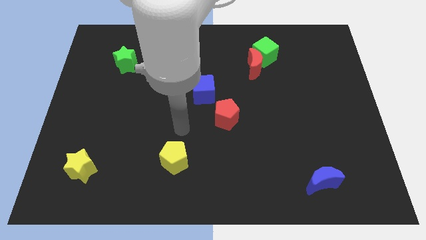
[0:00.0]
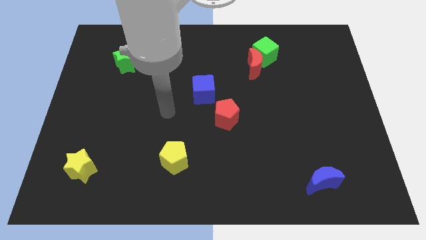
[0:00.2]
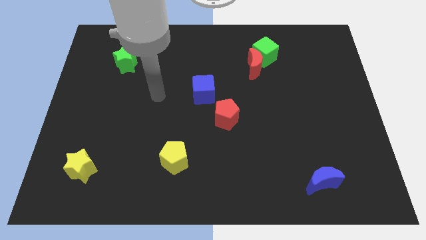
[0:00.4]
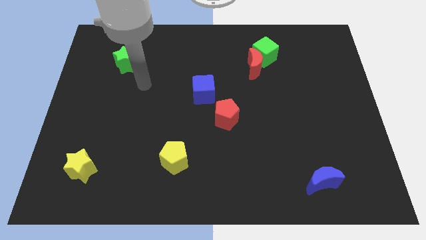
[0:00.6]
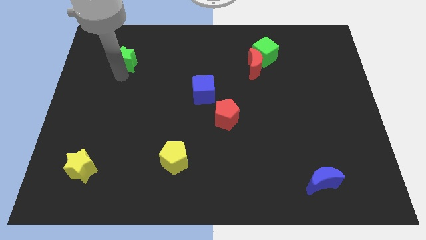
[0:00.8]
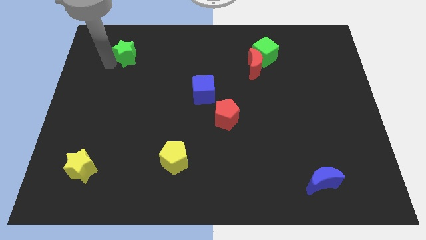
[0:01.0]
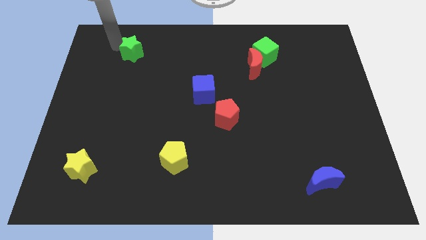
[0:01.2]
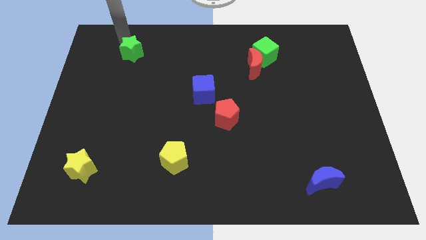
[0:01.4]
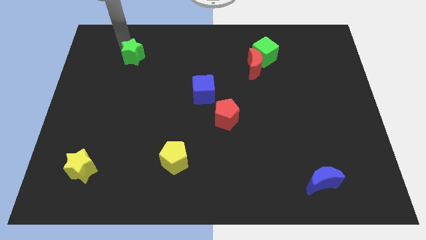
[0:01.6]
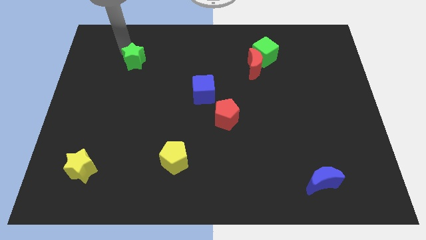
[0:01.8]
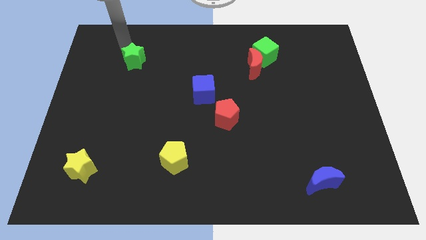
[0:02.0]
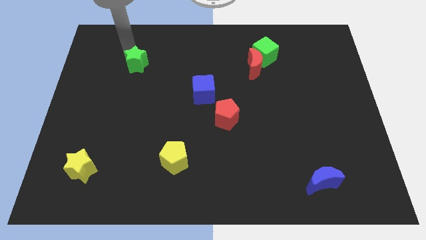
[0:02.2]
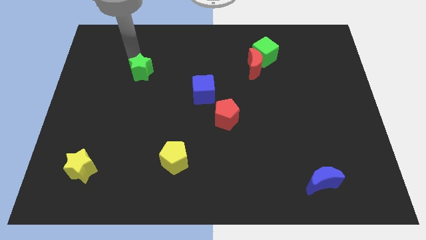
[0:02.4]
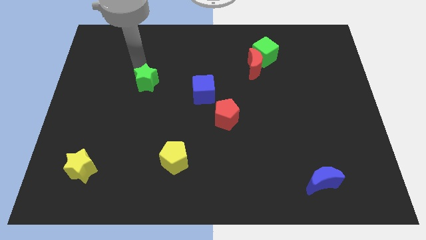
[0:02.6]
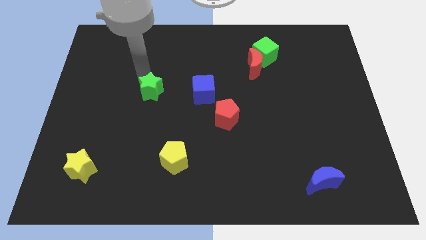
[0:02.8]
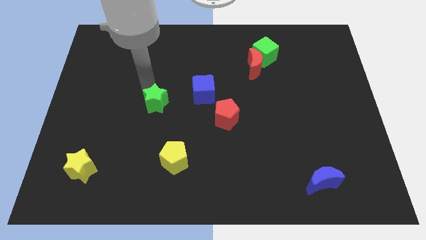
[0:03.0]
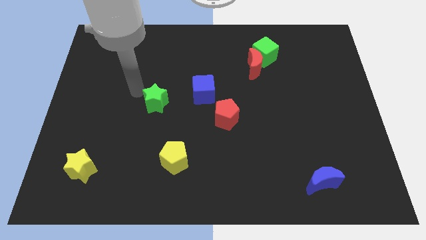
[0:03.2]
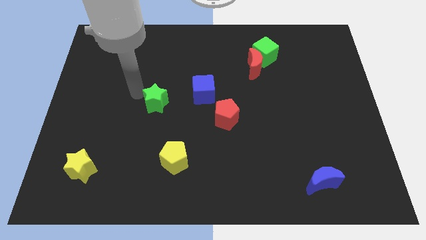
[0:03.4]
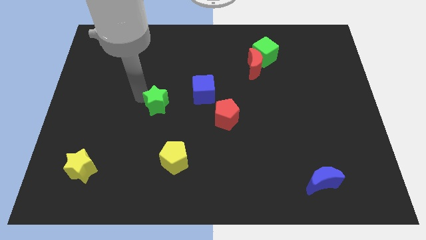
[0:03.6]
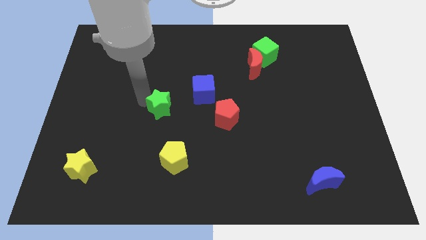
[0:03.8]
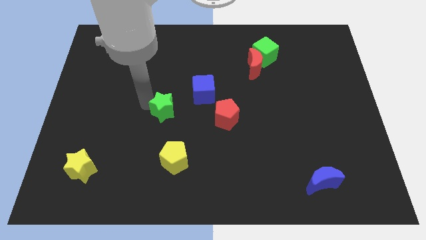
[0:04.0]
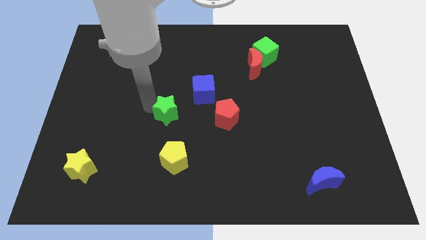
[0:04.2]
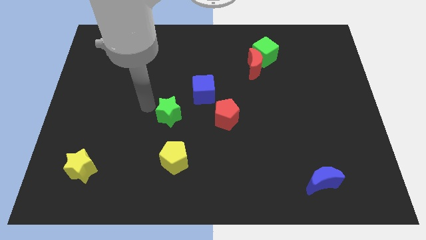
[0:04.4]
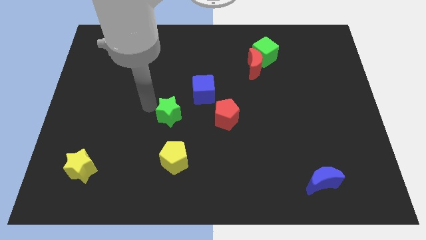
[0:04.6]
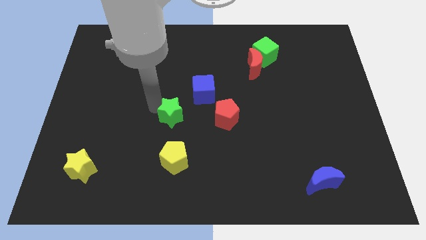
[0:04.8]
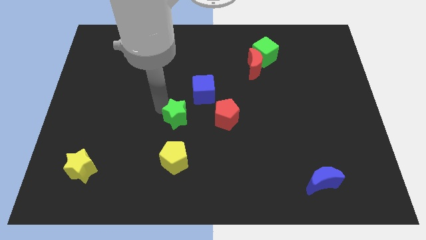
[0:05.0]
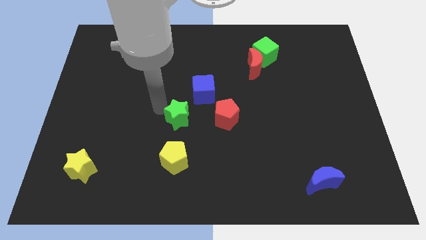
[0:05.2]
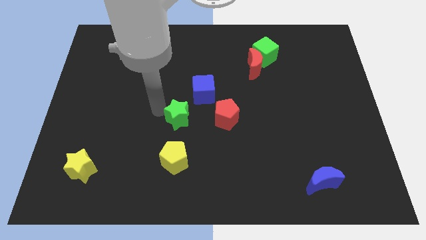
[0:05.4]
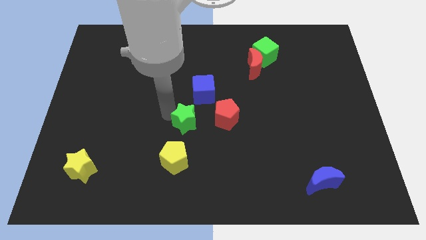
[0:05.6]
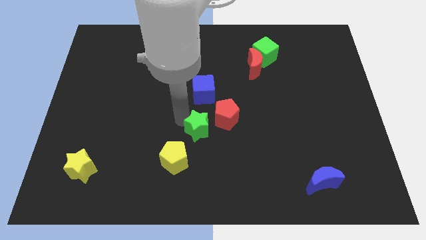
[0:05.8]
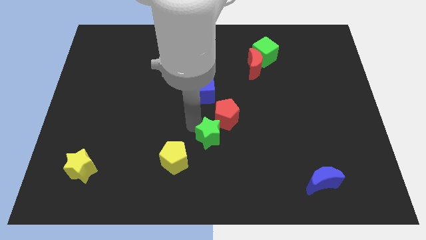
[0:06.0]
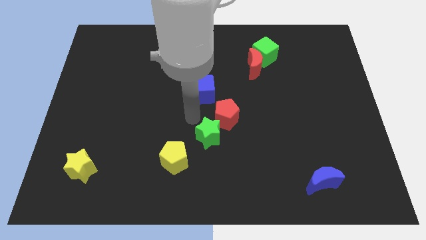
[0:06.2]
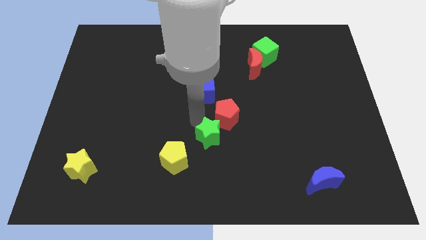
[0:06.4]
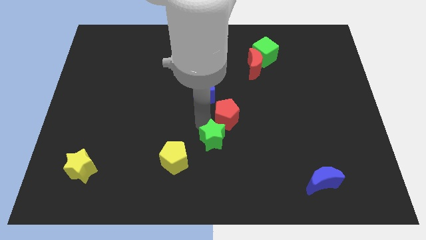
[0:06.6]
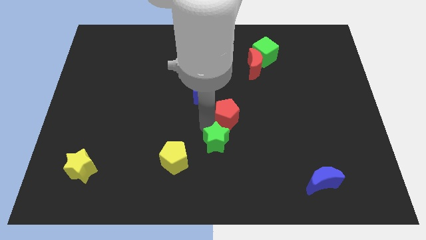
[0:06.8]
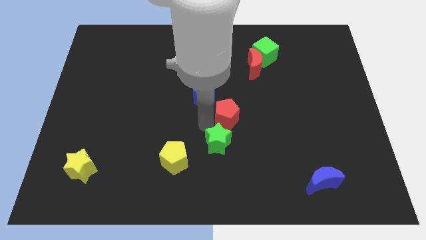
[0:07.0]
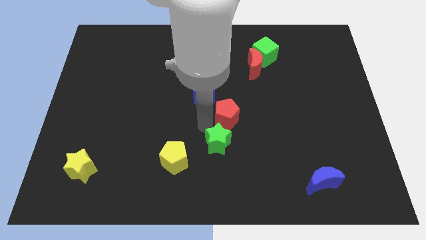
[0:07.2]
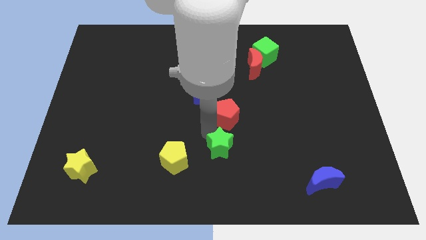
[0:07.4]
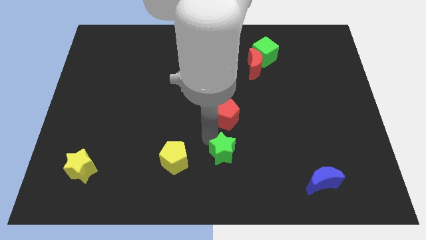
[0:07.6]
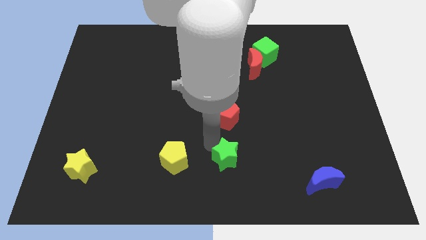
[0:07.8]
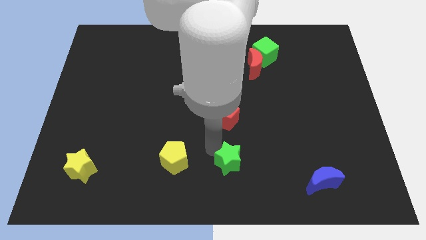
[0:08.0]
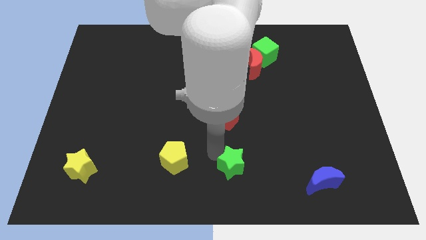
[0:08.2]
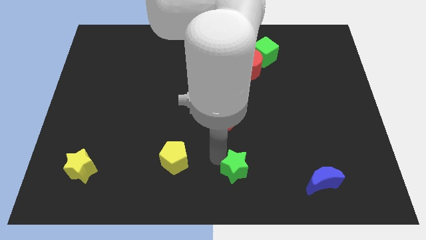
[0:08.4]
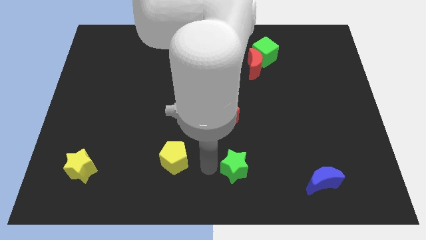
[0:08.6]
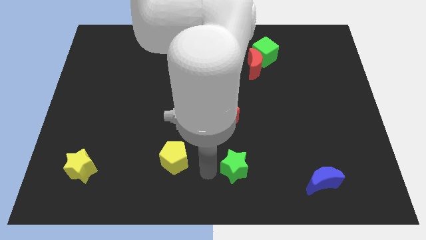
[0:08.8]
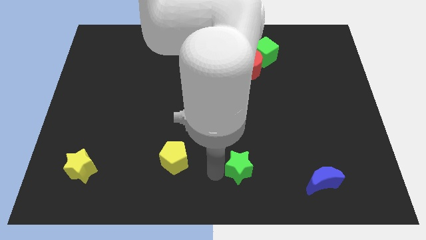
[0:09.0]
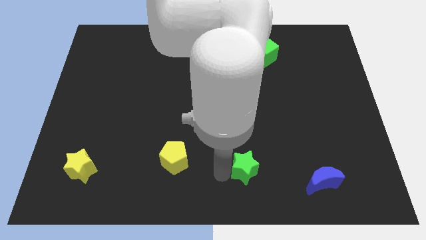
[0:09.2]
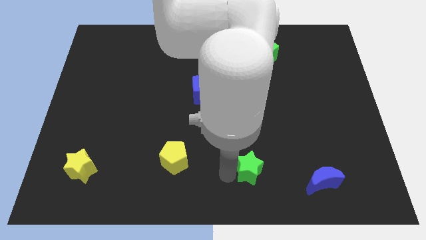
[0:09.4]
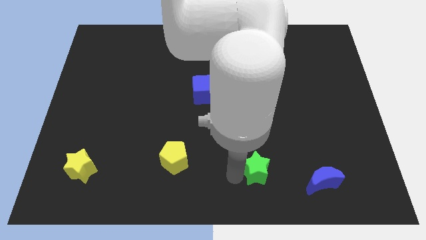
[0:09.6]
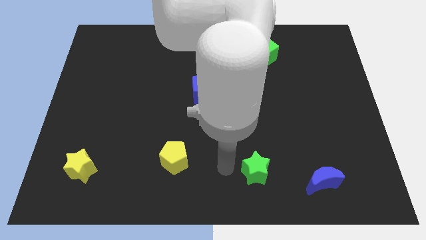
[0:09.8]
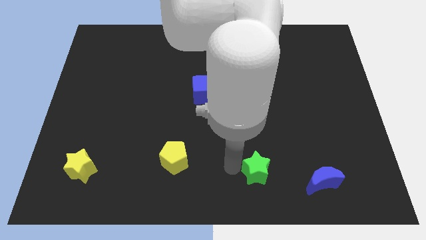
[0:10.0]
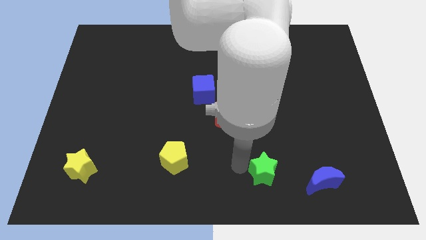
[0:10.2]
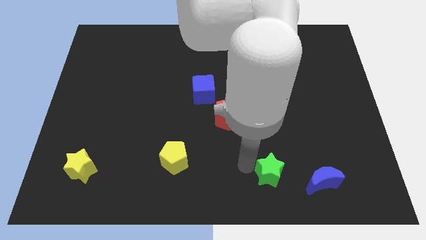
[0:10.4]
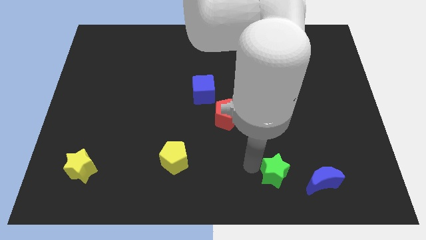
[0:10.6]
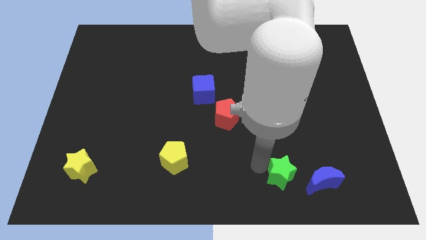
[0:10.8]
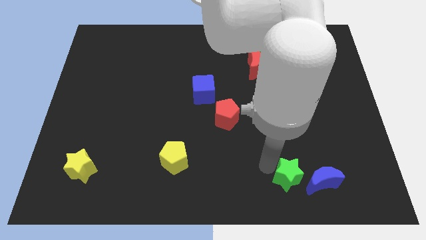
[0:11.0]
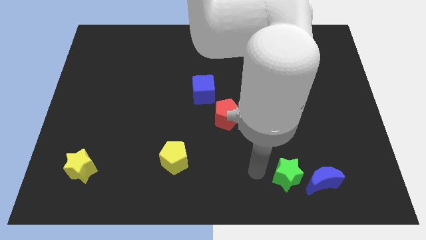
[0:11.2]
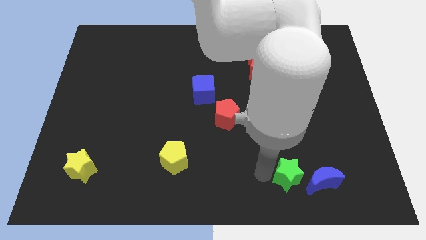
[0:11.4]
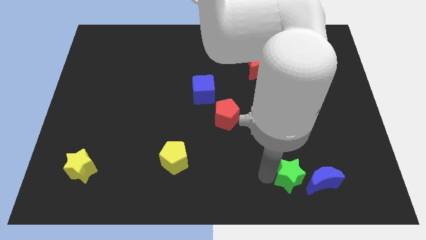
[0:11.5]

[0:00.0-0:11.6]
push the green star to the blue moon

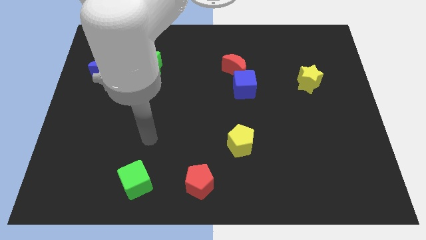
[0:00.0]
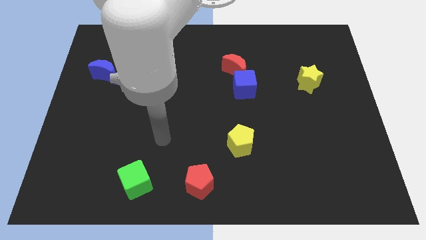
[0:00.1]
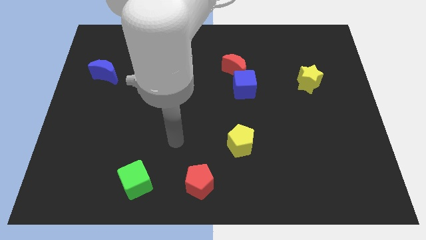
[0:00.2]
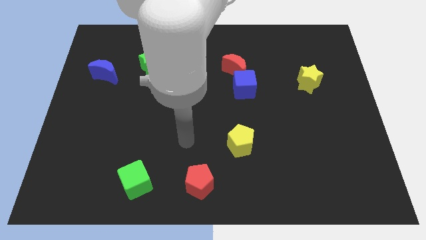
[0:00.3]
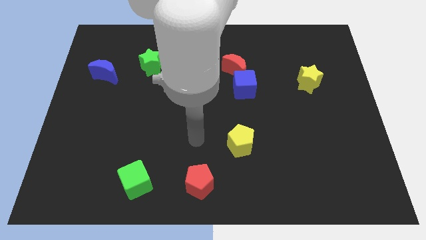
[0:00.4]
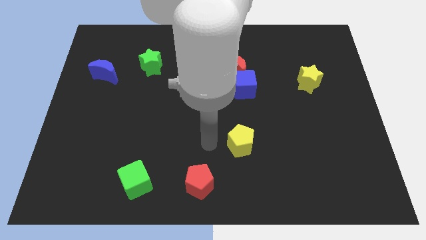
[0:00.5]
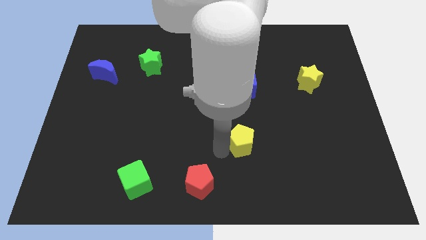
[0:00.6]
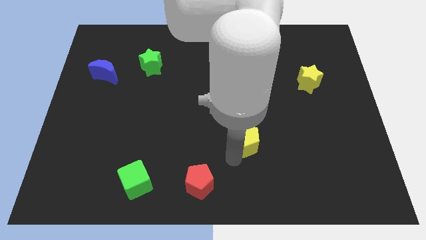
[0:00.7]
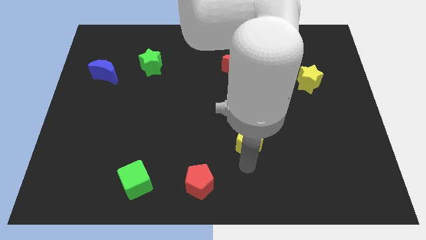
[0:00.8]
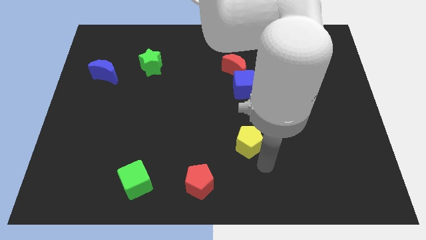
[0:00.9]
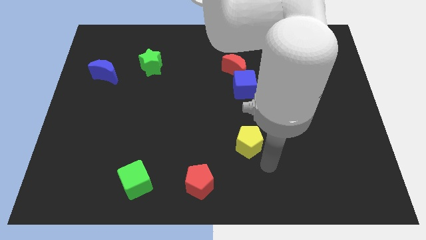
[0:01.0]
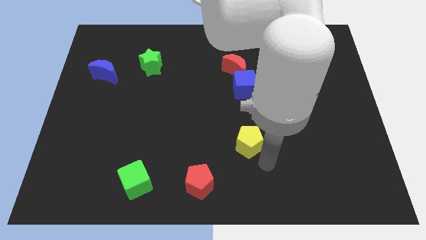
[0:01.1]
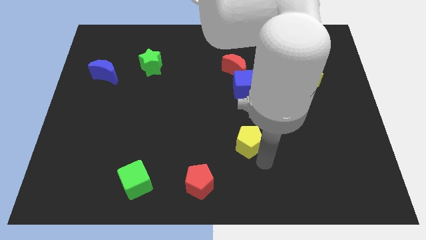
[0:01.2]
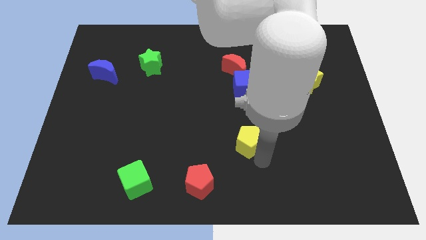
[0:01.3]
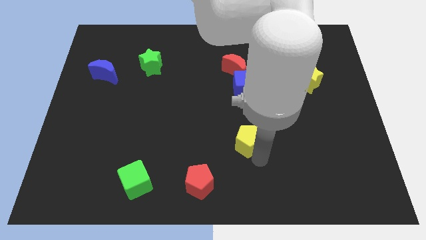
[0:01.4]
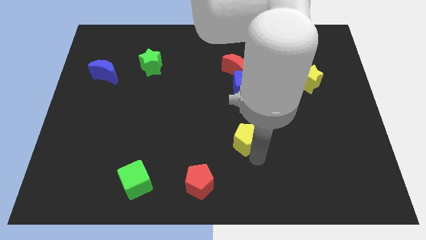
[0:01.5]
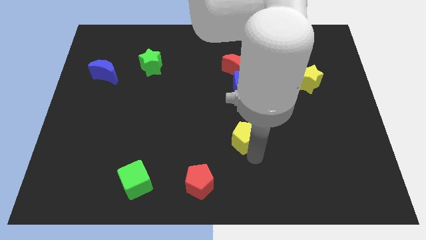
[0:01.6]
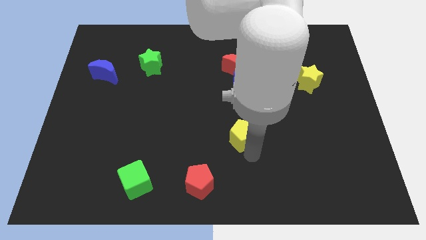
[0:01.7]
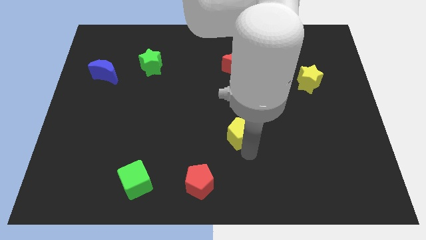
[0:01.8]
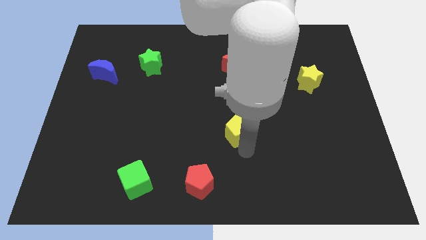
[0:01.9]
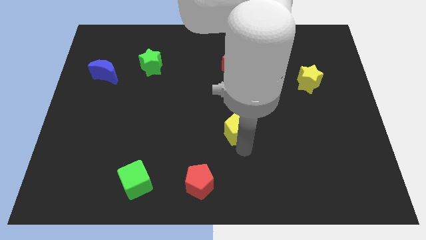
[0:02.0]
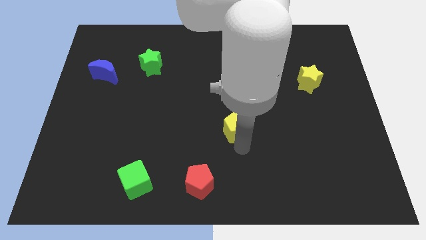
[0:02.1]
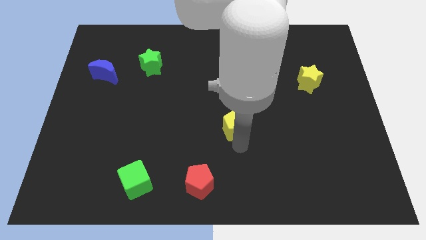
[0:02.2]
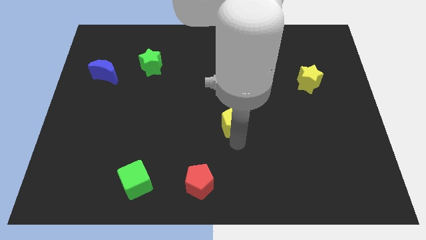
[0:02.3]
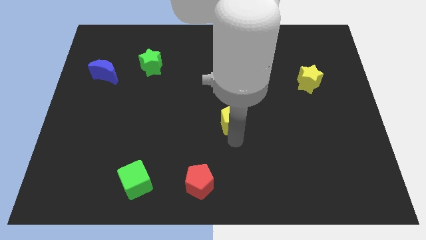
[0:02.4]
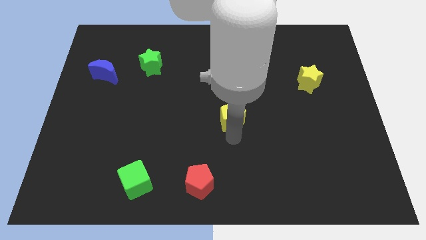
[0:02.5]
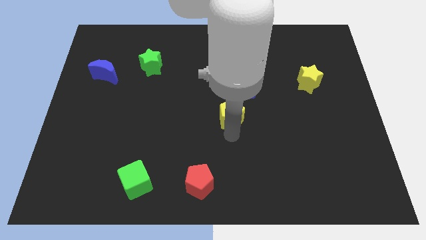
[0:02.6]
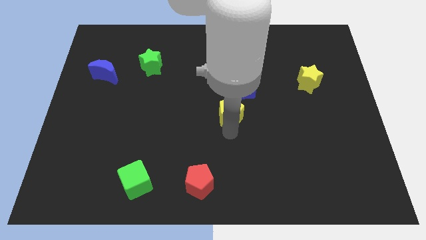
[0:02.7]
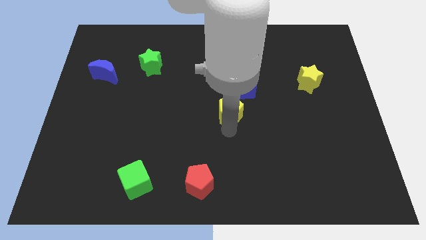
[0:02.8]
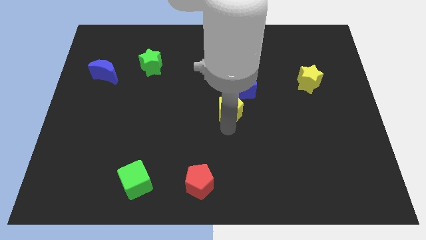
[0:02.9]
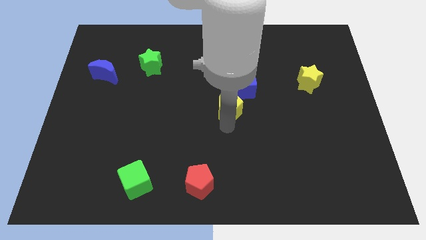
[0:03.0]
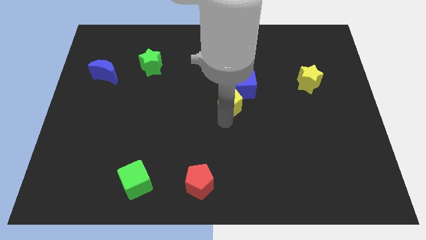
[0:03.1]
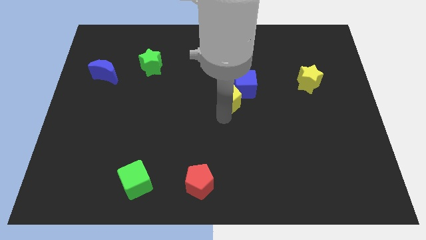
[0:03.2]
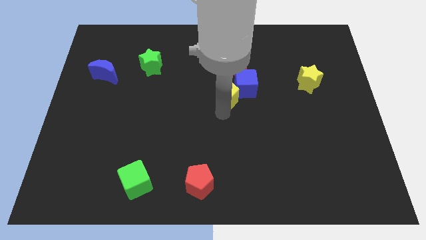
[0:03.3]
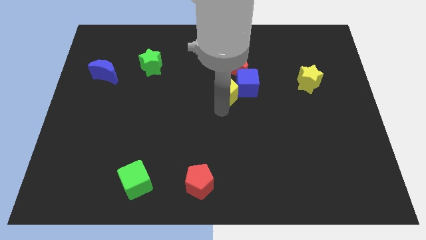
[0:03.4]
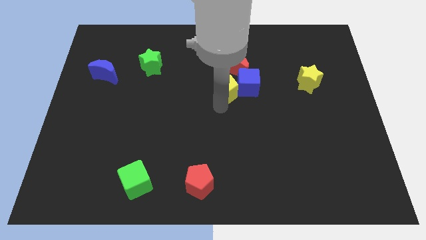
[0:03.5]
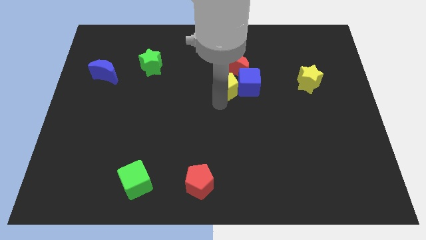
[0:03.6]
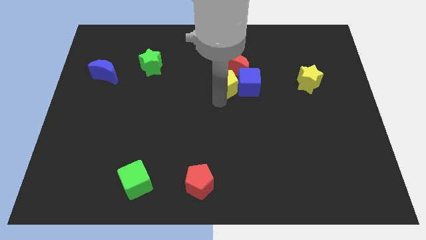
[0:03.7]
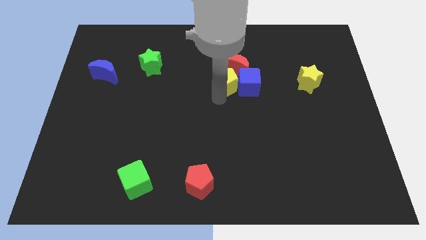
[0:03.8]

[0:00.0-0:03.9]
push the yellow pentagon next to the red moon
